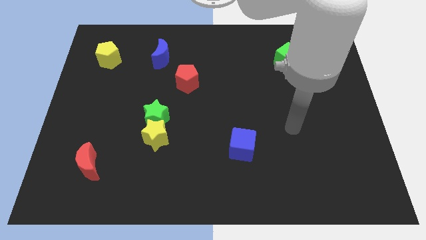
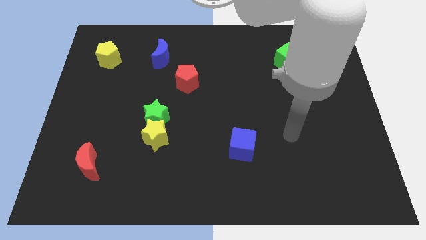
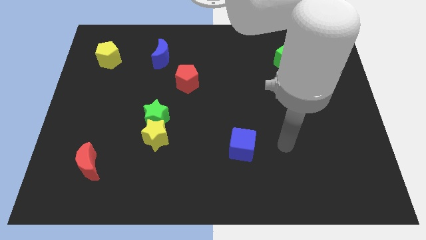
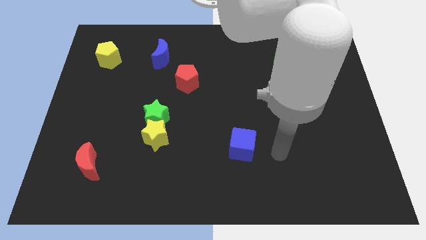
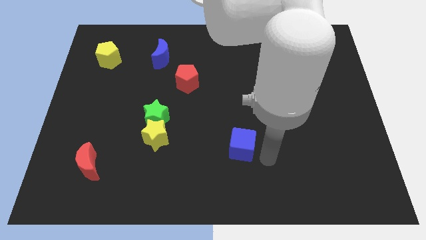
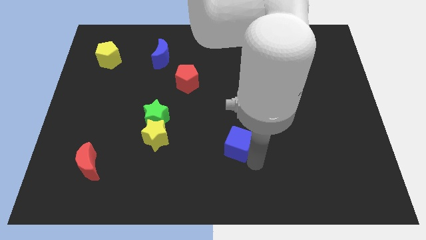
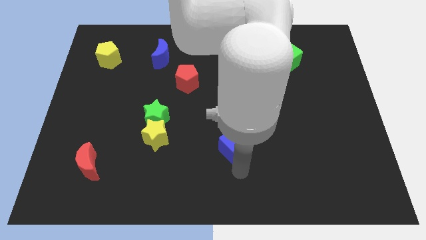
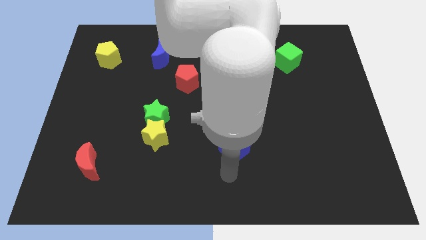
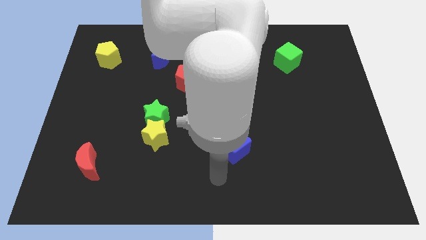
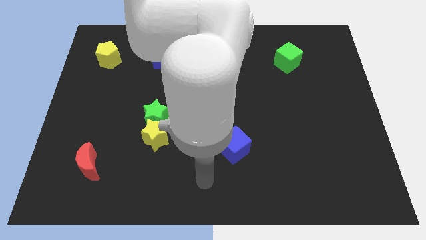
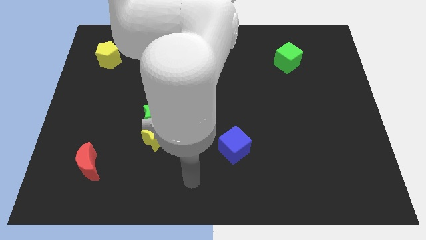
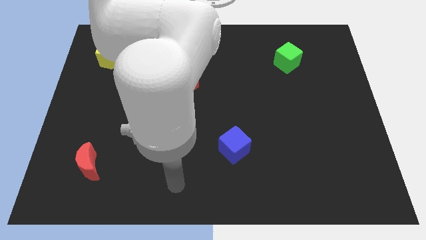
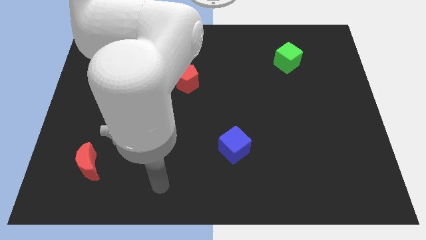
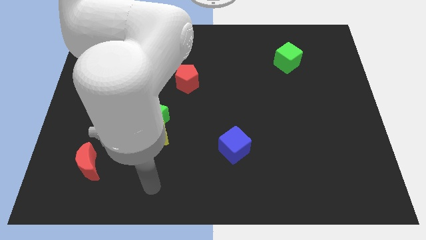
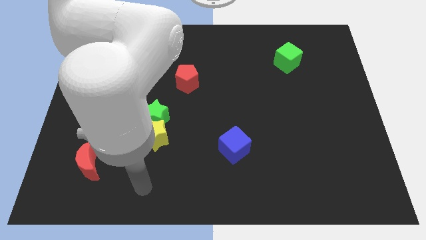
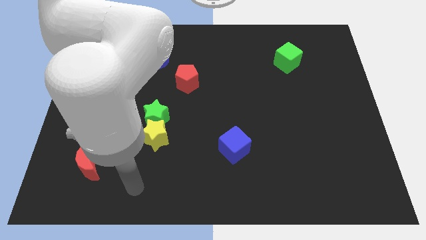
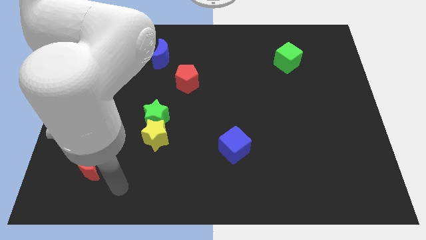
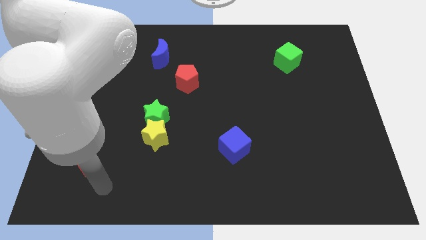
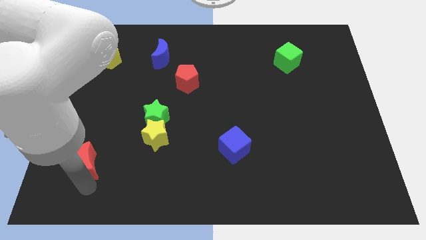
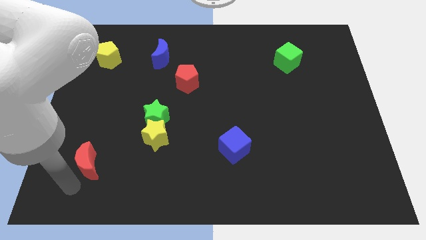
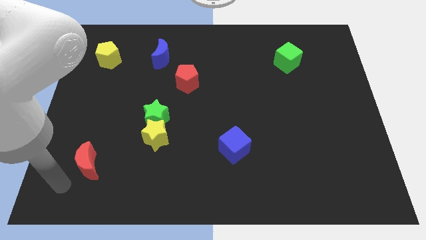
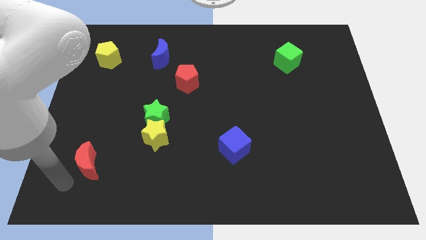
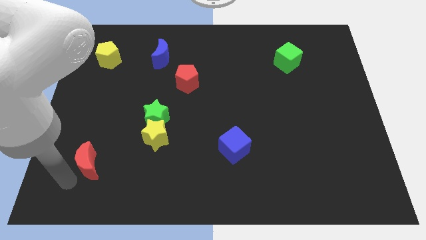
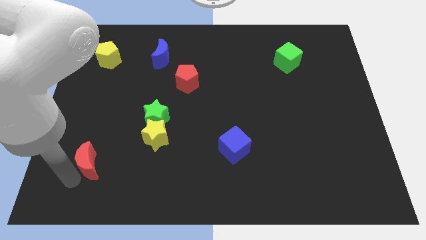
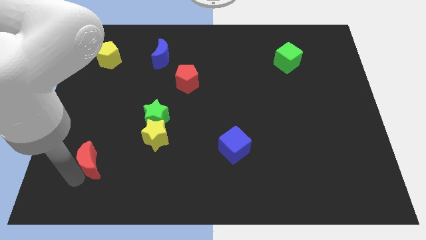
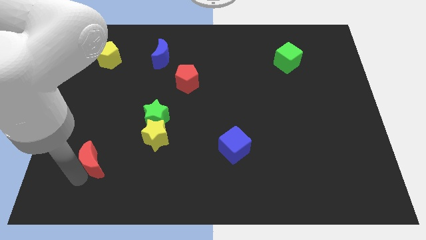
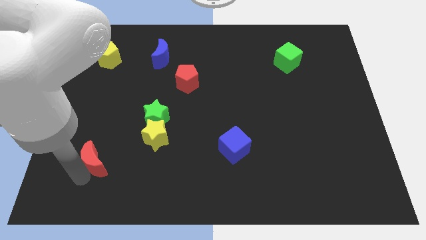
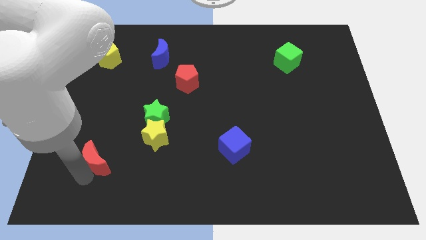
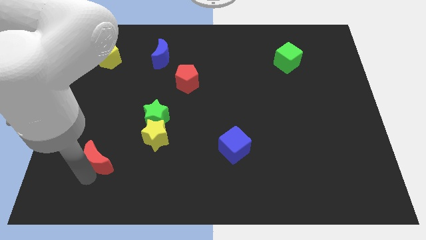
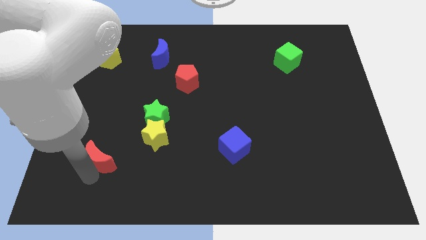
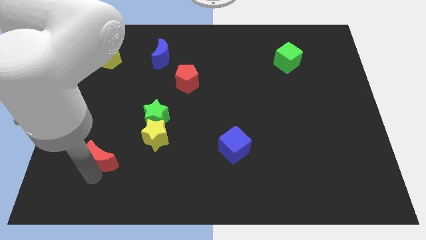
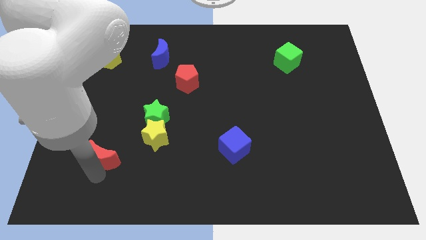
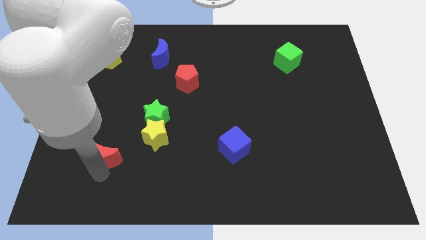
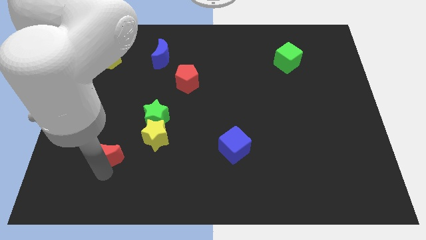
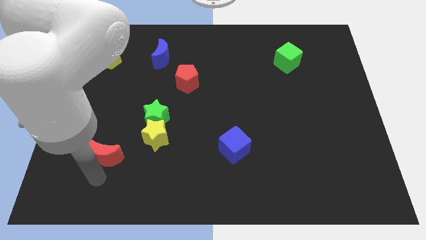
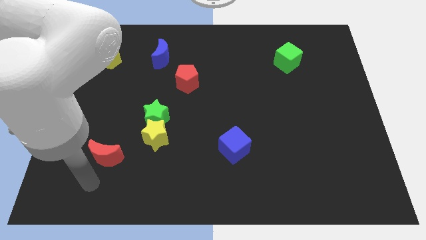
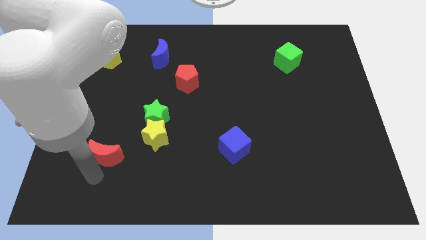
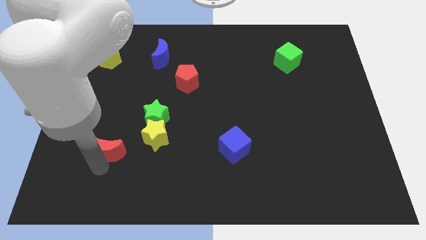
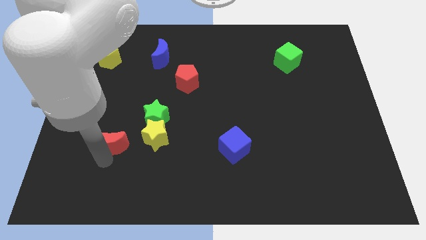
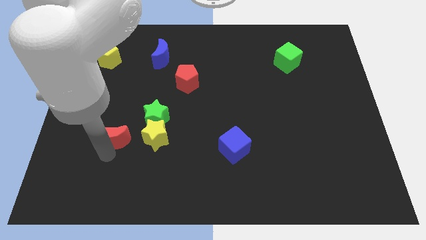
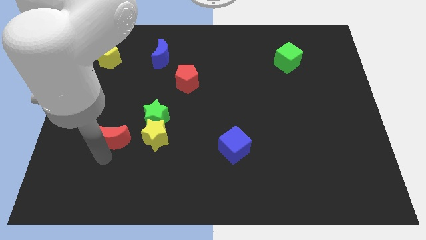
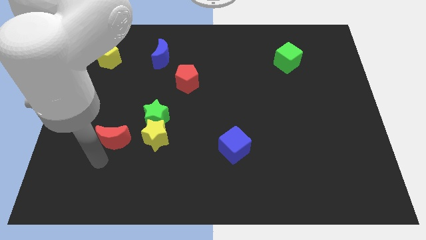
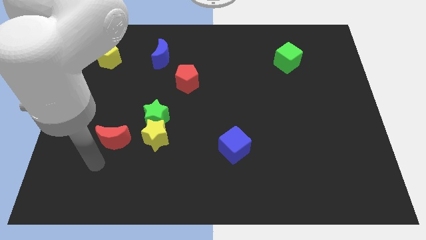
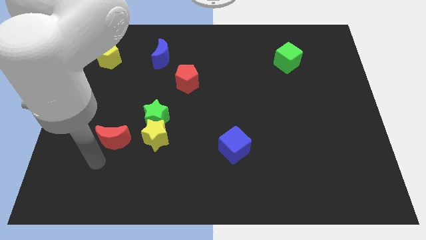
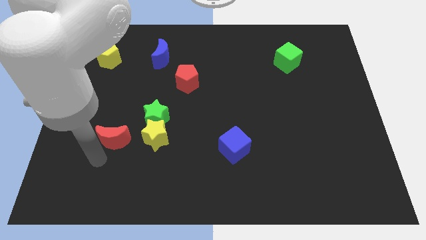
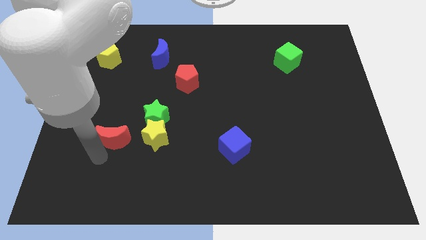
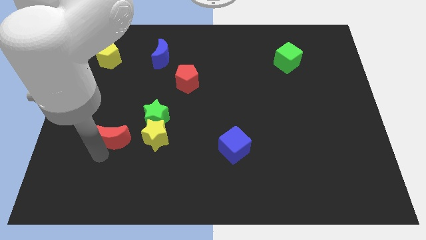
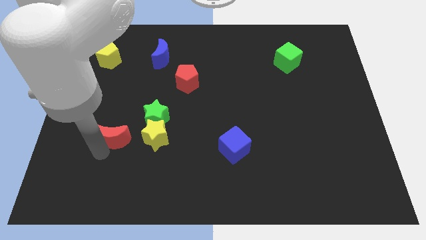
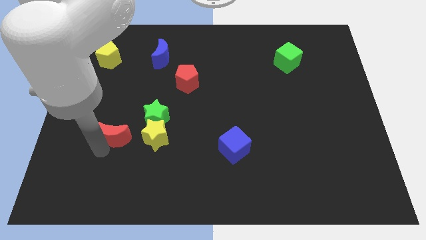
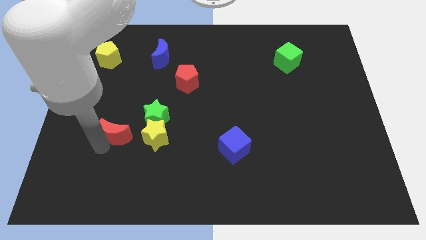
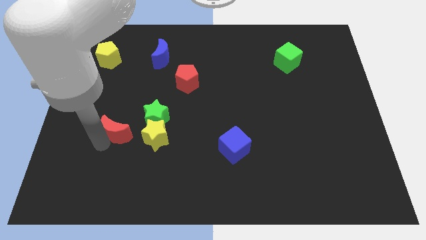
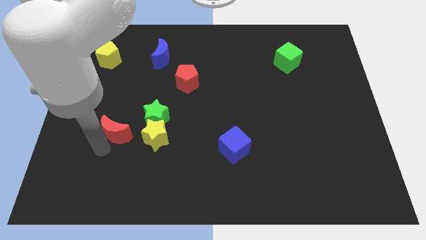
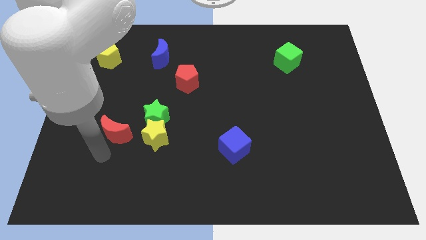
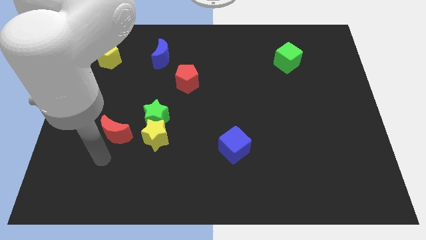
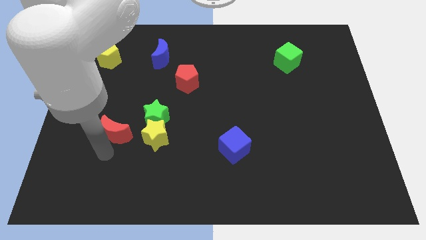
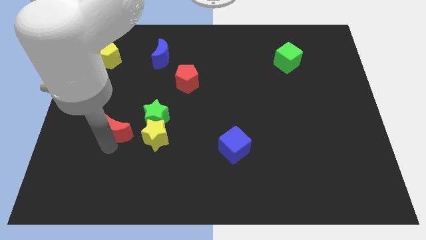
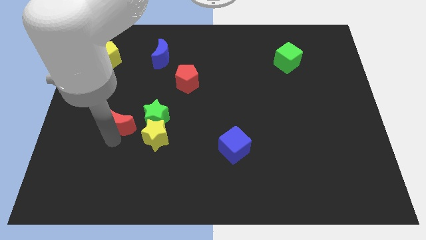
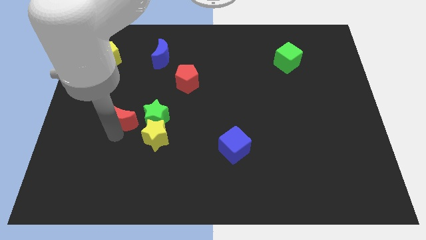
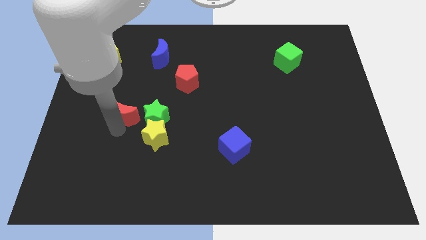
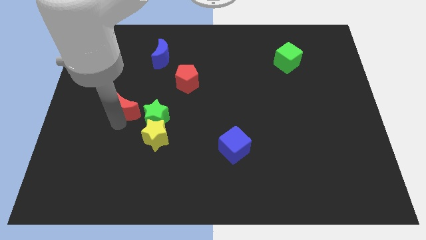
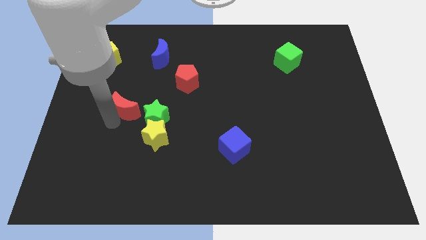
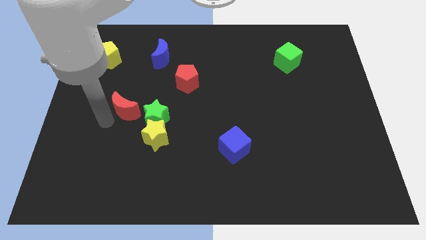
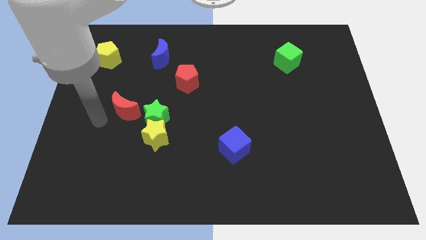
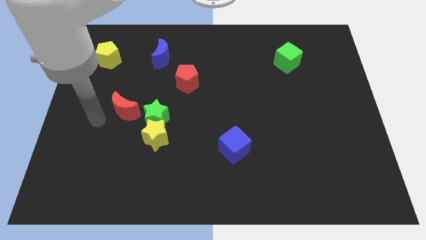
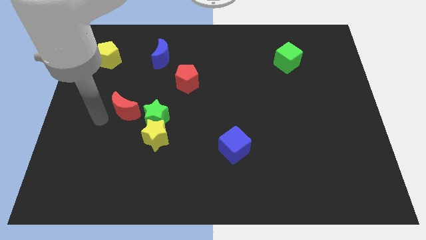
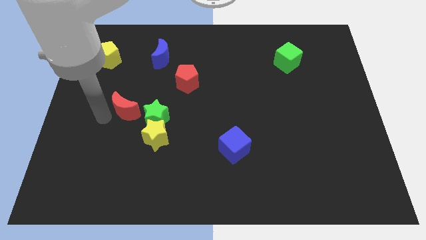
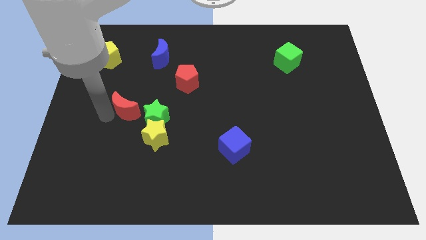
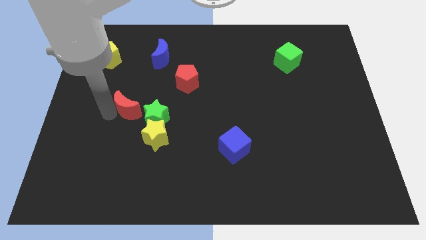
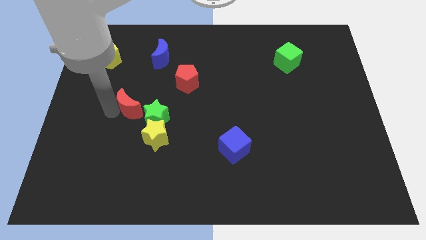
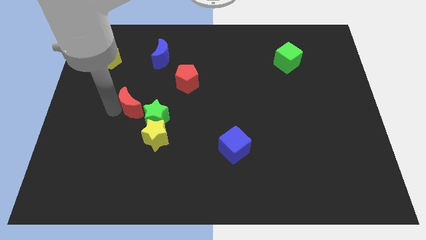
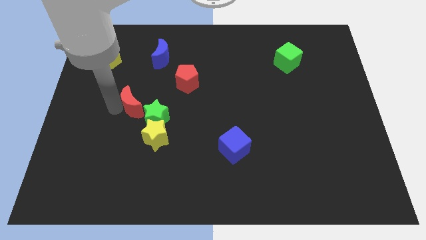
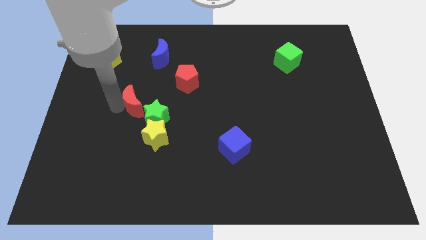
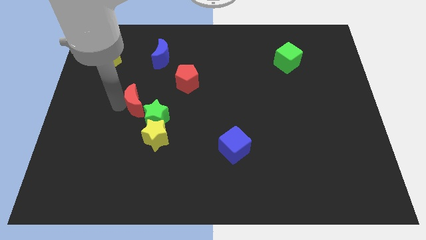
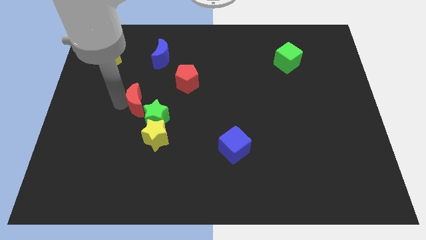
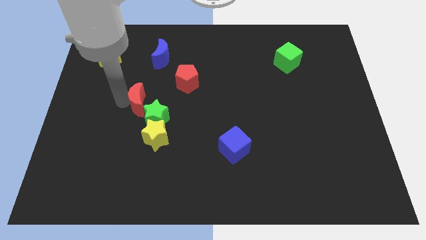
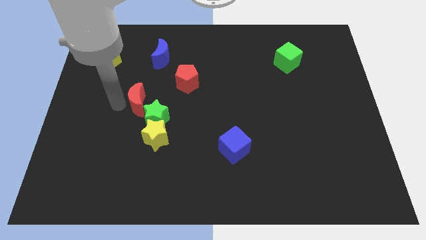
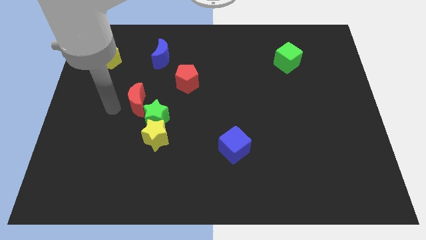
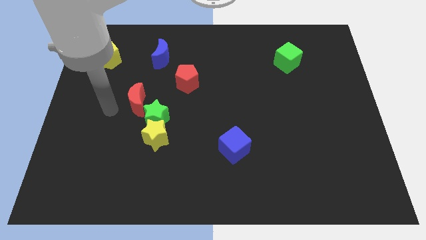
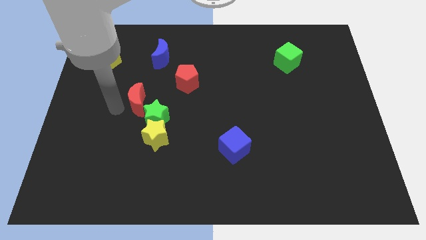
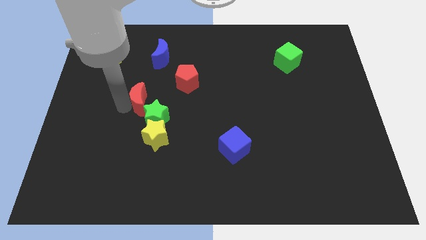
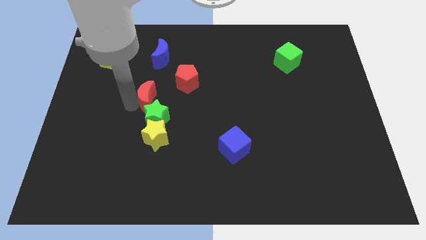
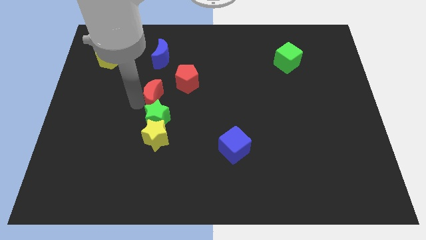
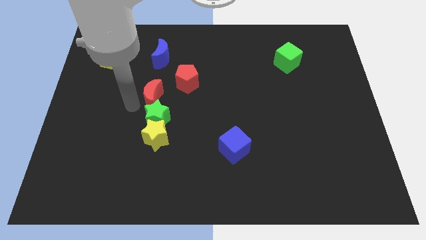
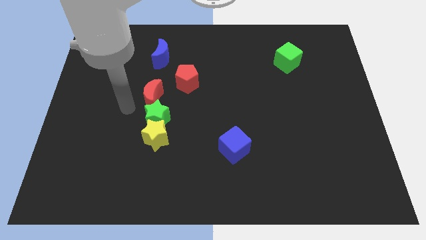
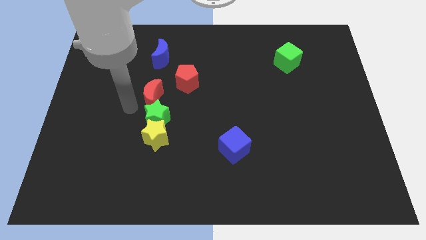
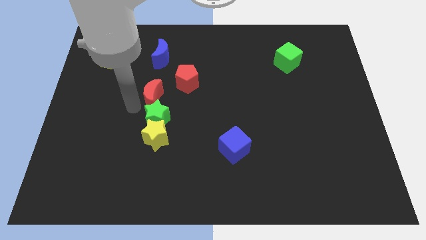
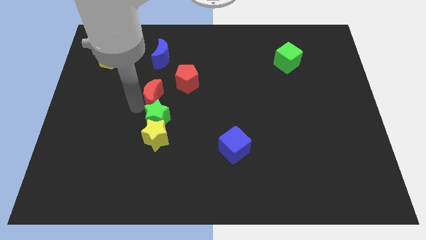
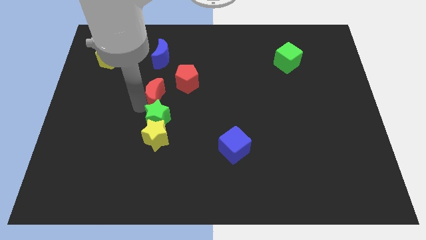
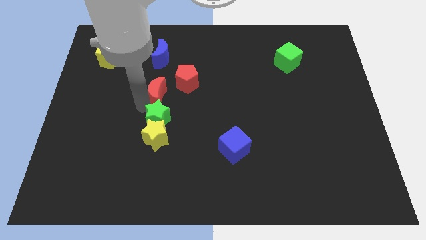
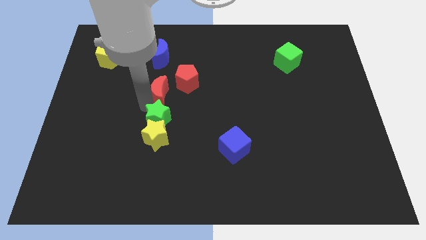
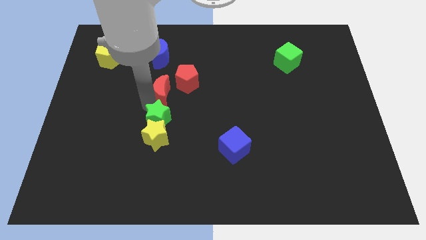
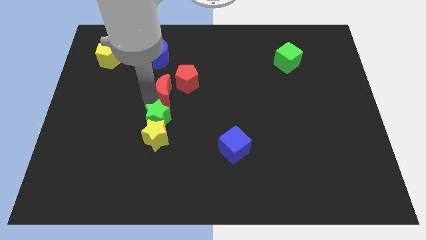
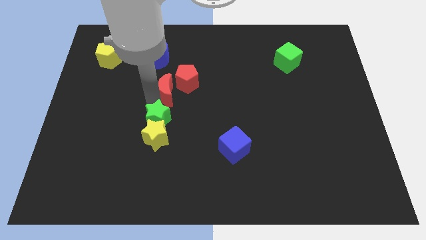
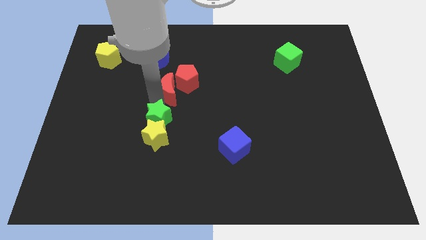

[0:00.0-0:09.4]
put the red moon close to the red pentagon
